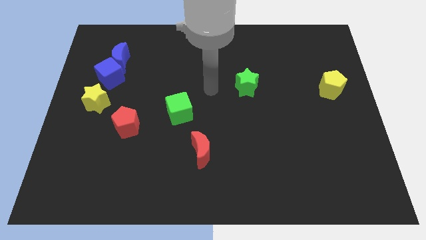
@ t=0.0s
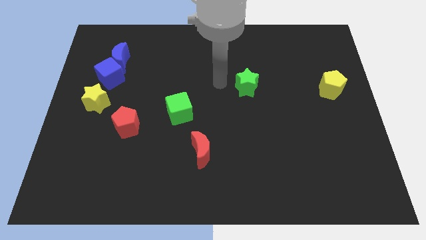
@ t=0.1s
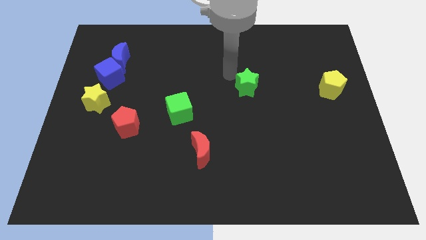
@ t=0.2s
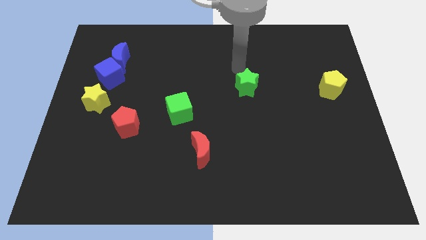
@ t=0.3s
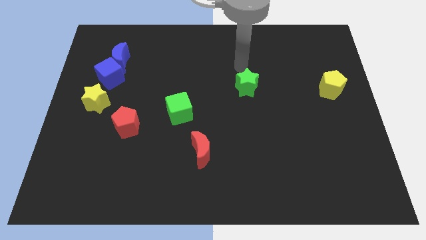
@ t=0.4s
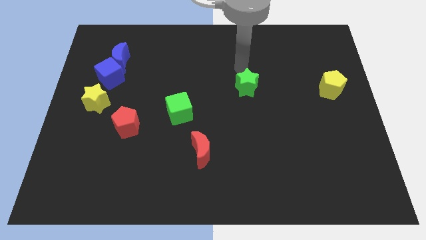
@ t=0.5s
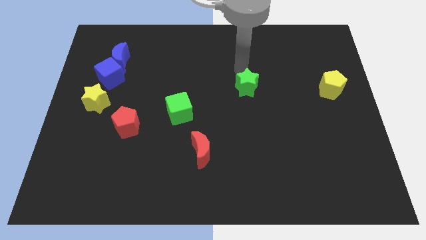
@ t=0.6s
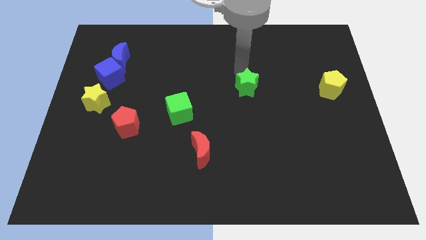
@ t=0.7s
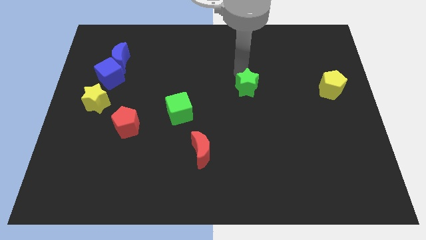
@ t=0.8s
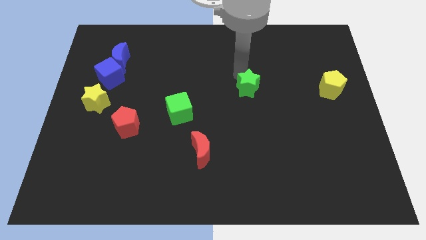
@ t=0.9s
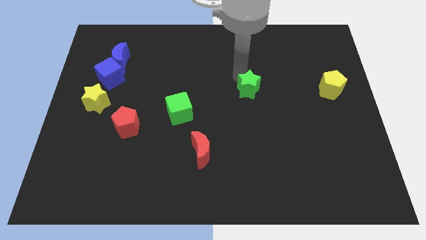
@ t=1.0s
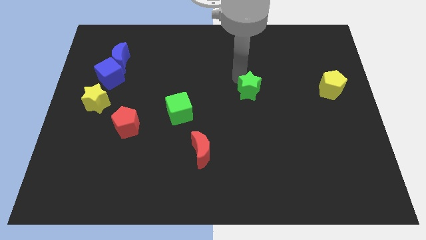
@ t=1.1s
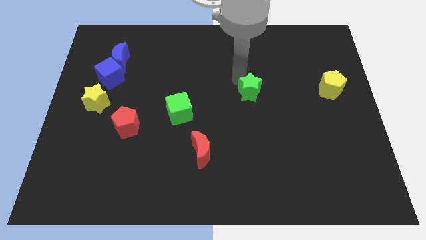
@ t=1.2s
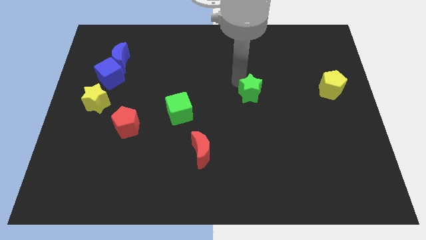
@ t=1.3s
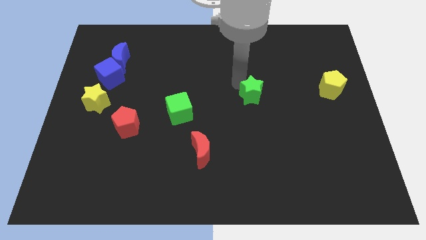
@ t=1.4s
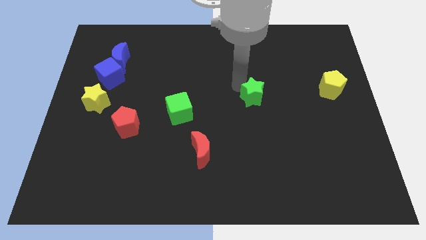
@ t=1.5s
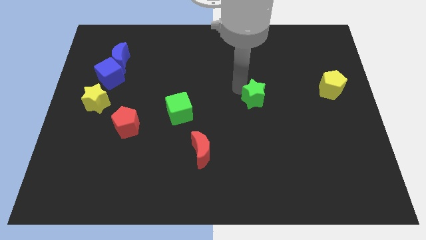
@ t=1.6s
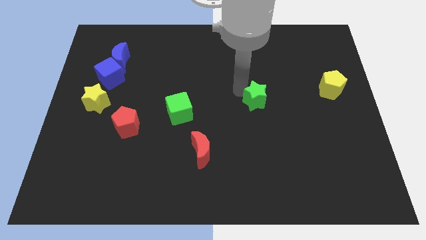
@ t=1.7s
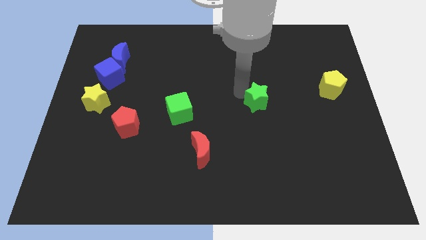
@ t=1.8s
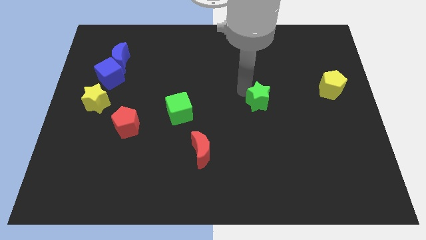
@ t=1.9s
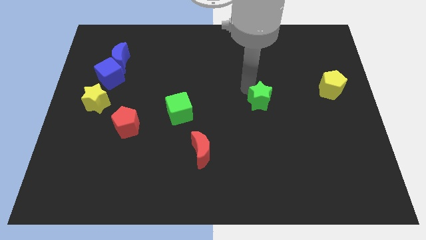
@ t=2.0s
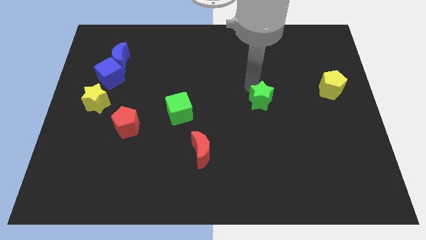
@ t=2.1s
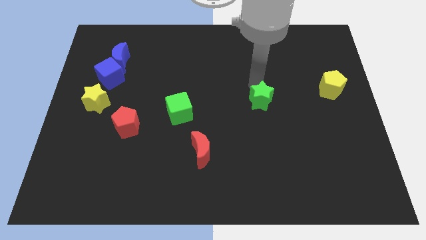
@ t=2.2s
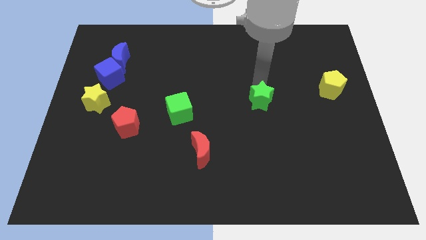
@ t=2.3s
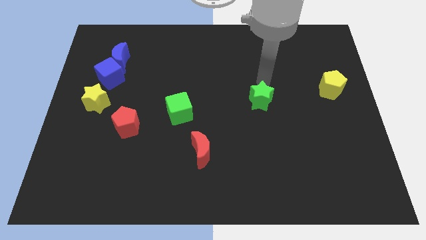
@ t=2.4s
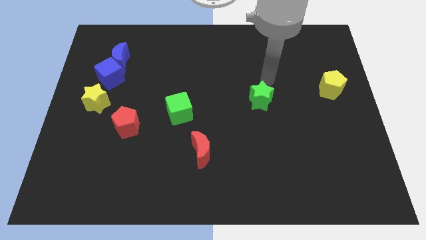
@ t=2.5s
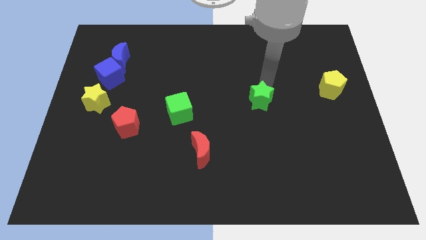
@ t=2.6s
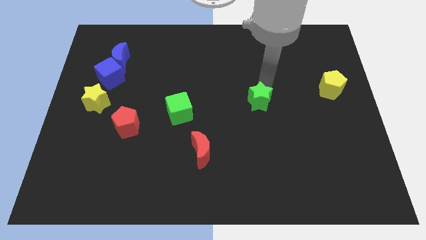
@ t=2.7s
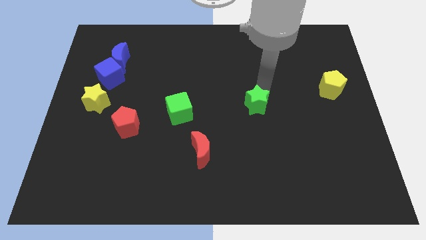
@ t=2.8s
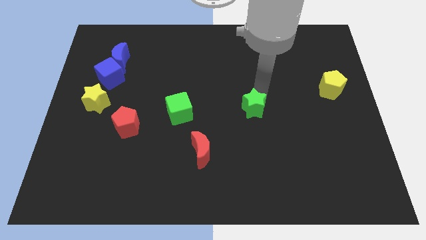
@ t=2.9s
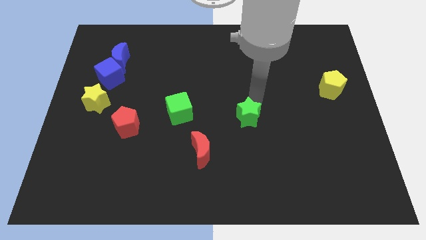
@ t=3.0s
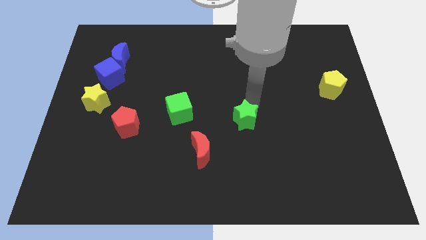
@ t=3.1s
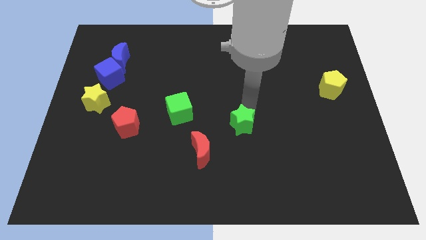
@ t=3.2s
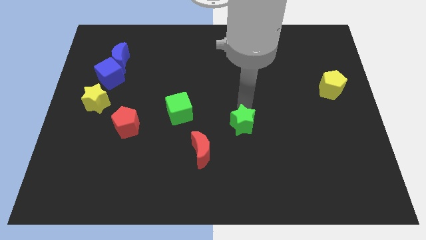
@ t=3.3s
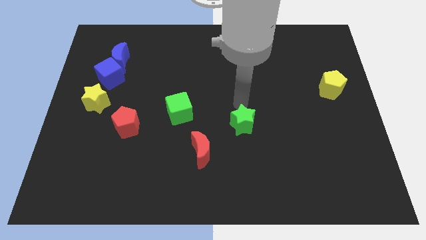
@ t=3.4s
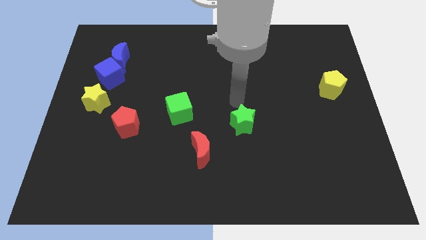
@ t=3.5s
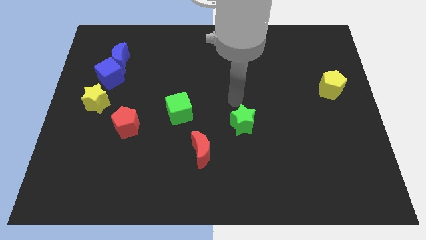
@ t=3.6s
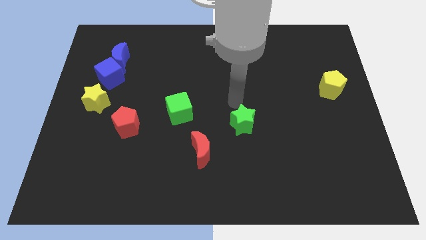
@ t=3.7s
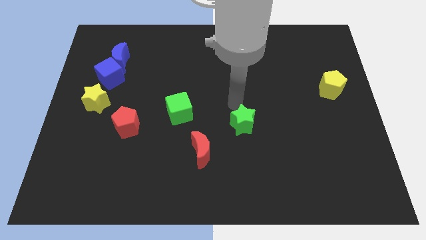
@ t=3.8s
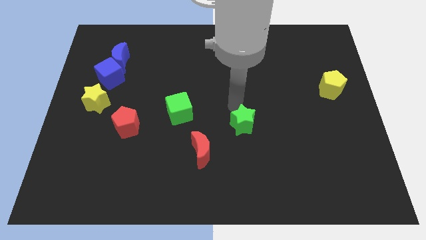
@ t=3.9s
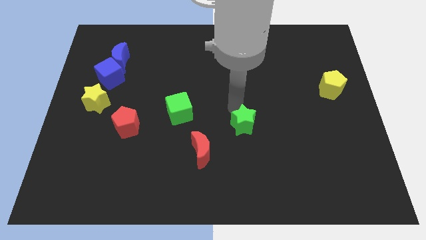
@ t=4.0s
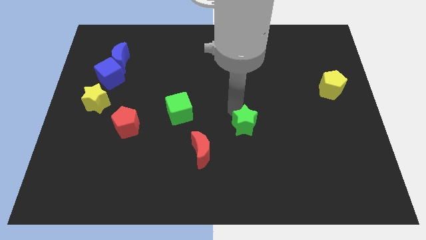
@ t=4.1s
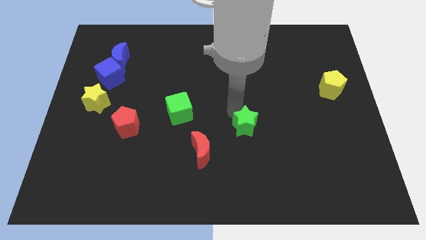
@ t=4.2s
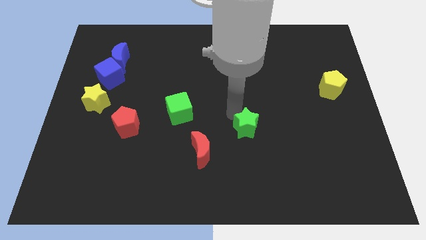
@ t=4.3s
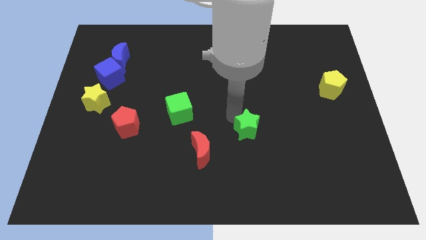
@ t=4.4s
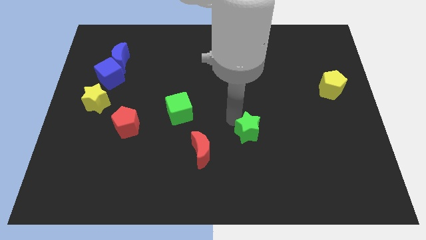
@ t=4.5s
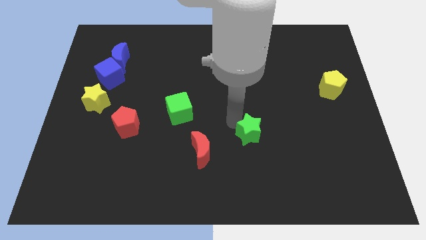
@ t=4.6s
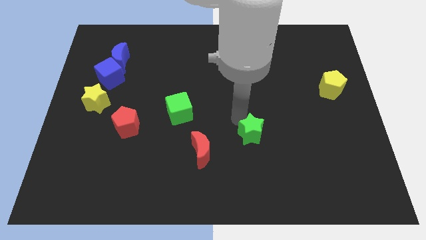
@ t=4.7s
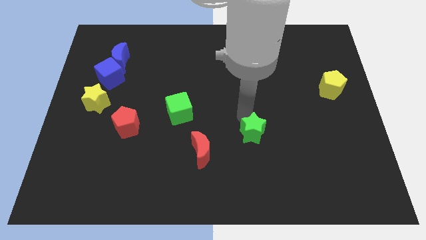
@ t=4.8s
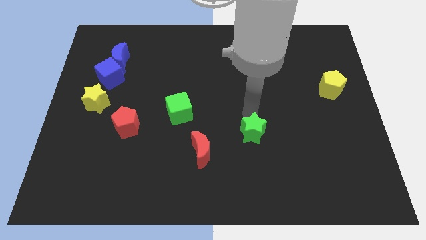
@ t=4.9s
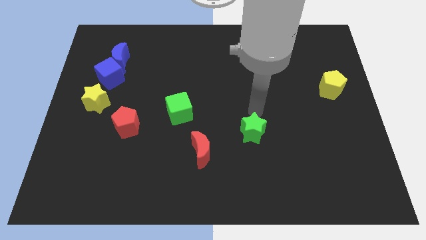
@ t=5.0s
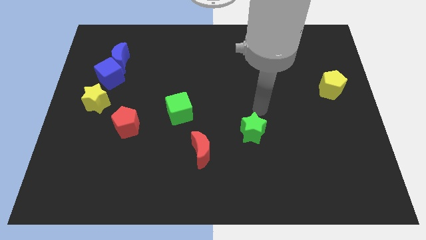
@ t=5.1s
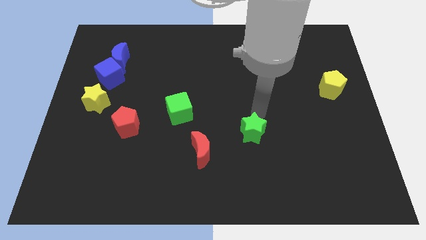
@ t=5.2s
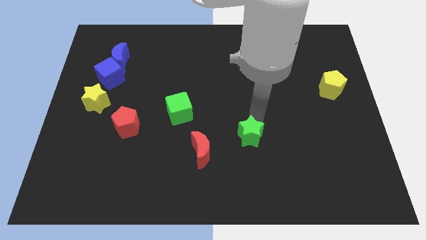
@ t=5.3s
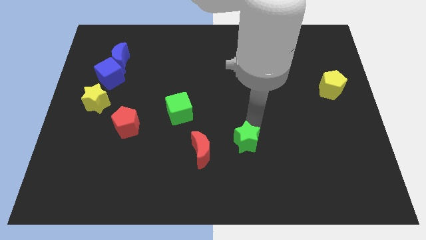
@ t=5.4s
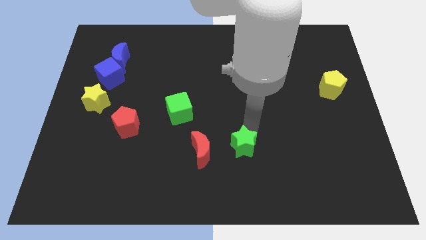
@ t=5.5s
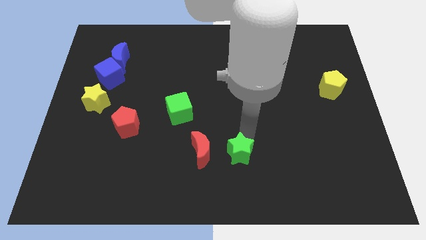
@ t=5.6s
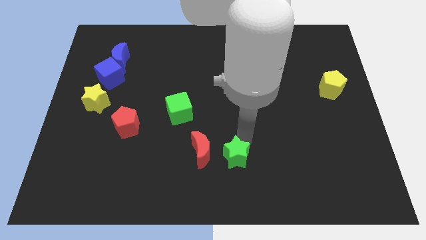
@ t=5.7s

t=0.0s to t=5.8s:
put the green star to the bottom side

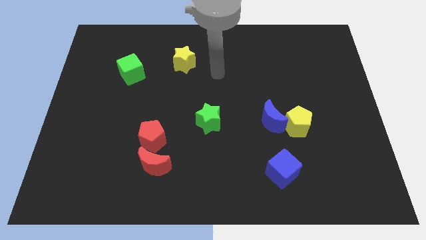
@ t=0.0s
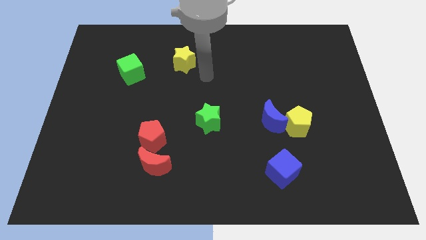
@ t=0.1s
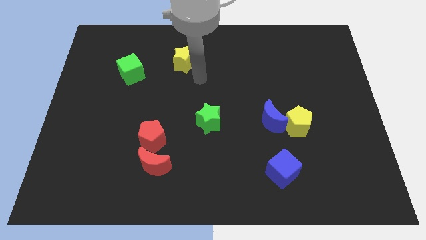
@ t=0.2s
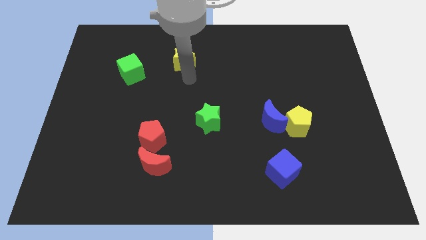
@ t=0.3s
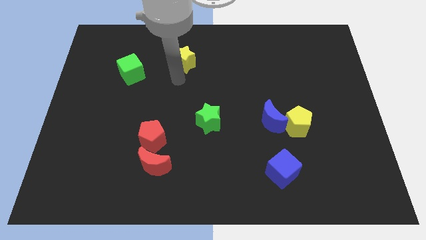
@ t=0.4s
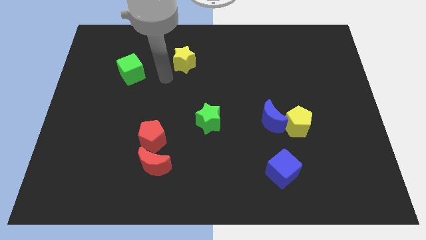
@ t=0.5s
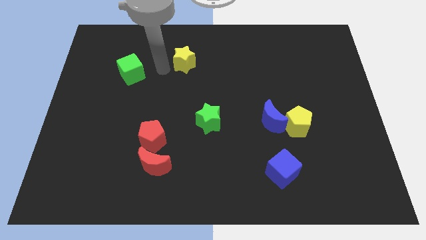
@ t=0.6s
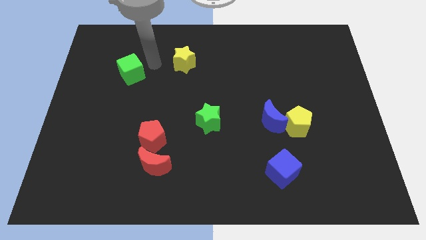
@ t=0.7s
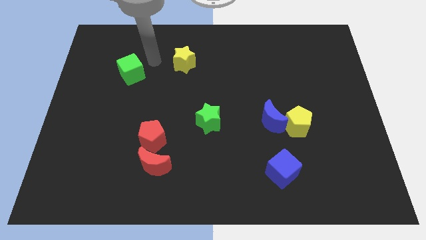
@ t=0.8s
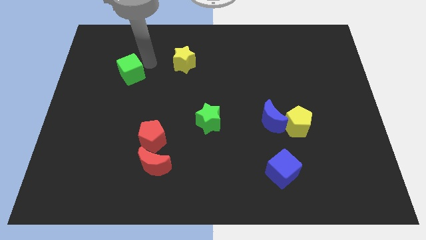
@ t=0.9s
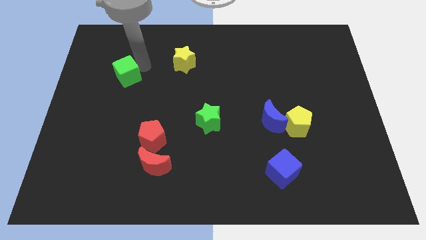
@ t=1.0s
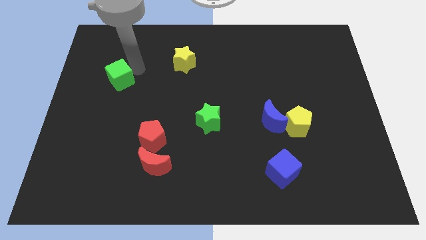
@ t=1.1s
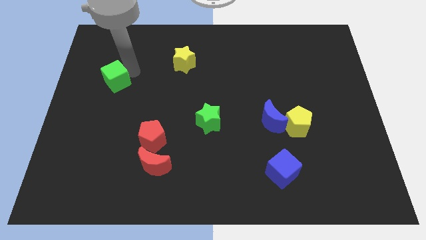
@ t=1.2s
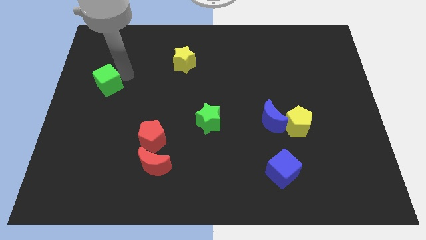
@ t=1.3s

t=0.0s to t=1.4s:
push the green cube to the left side
